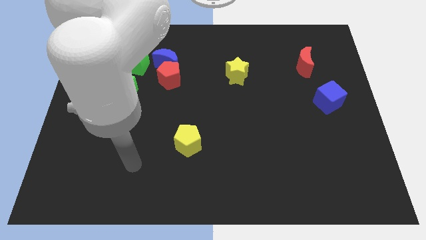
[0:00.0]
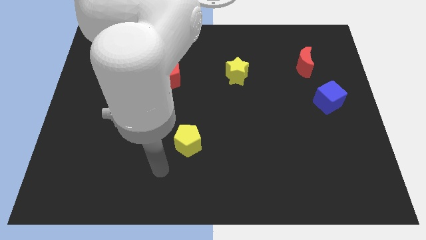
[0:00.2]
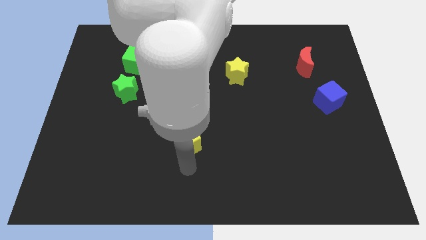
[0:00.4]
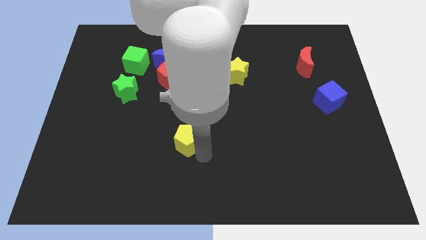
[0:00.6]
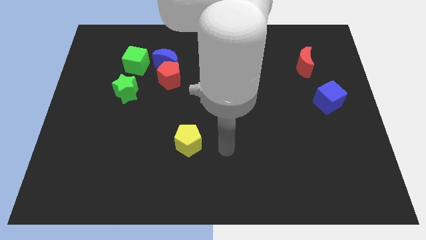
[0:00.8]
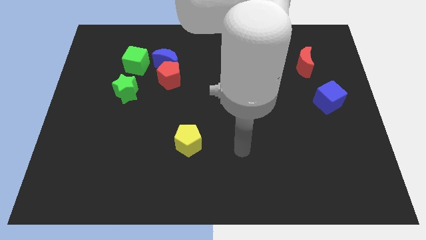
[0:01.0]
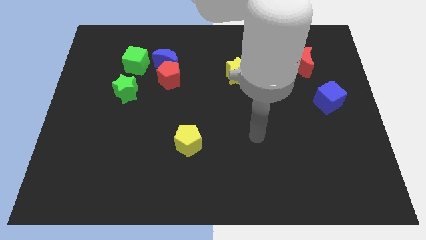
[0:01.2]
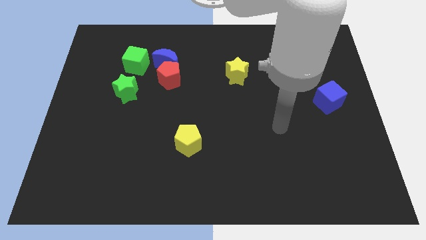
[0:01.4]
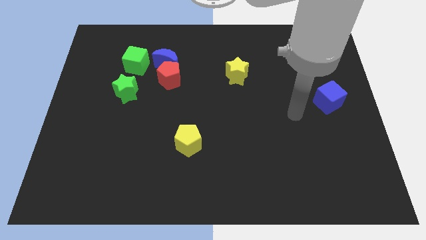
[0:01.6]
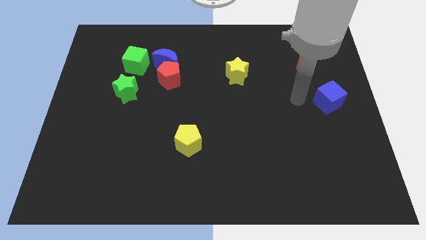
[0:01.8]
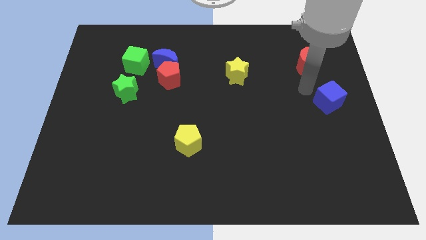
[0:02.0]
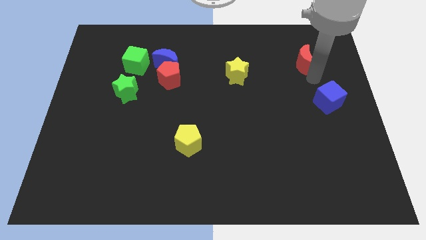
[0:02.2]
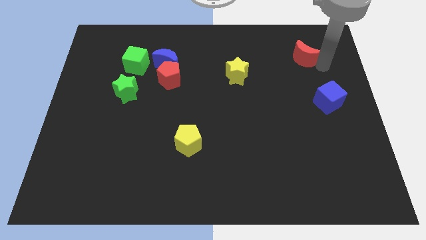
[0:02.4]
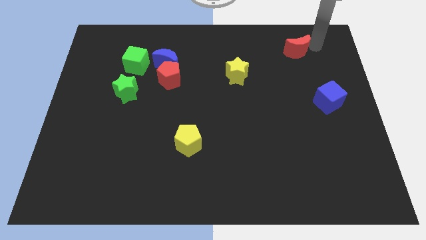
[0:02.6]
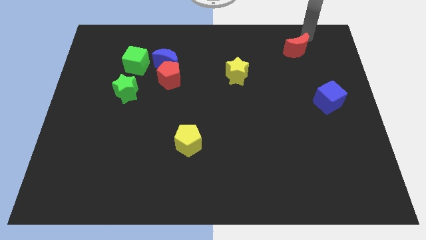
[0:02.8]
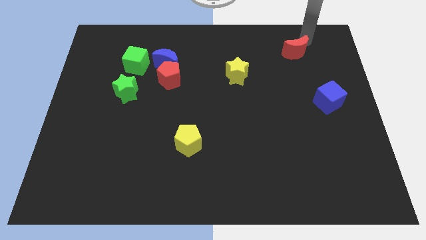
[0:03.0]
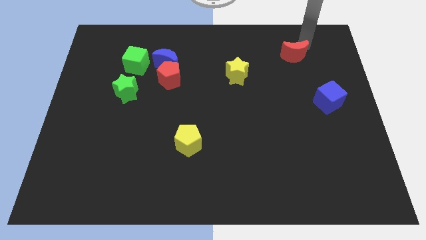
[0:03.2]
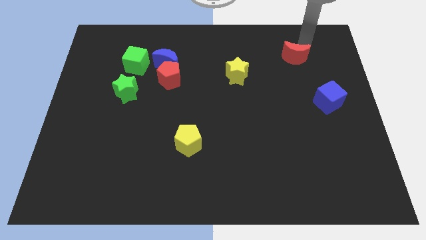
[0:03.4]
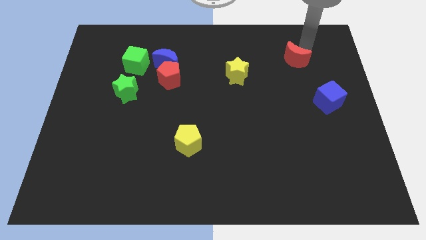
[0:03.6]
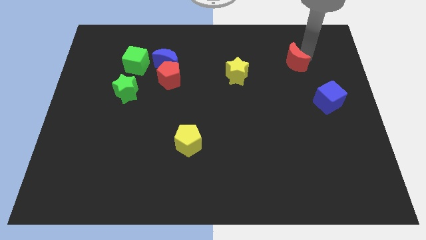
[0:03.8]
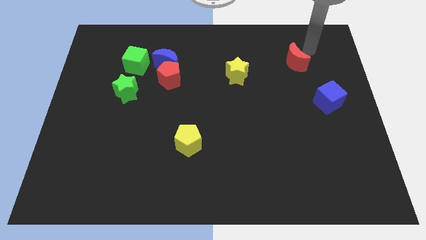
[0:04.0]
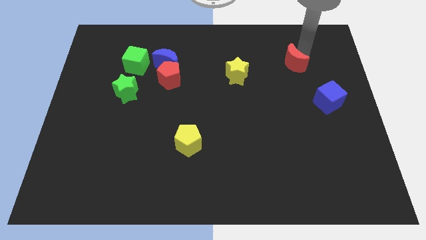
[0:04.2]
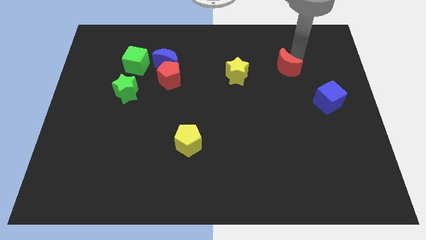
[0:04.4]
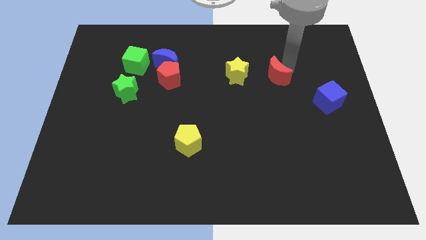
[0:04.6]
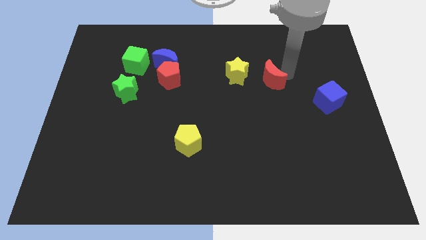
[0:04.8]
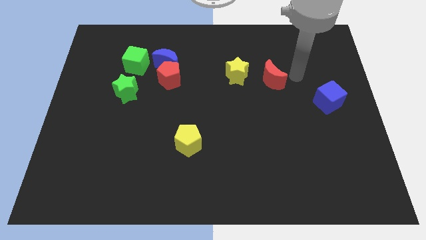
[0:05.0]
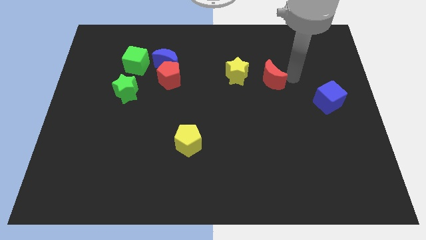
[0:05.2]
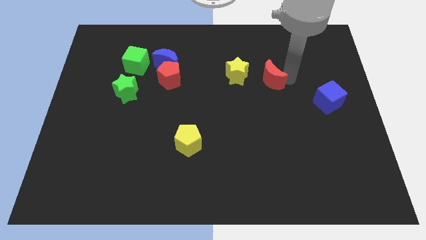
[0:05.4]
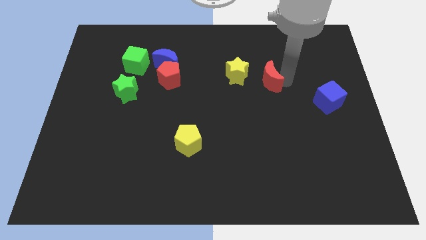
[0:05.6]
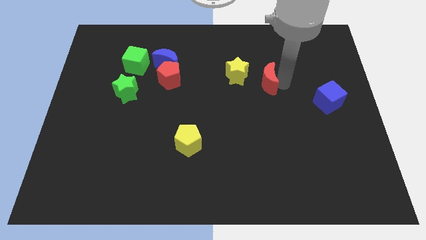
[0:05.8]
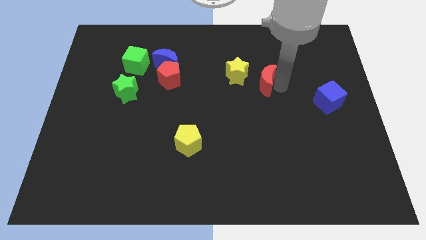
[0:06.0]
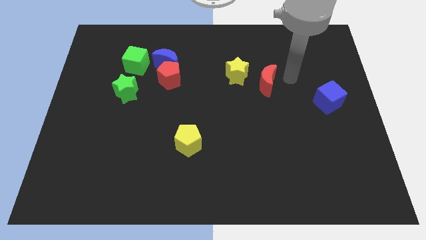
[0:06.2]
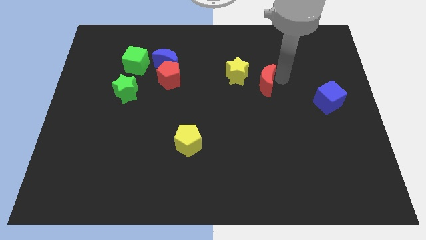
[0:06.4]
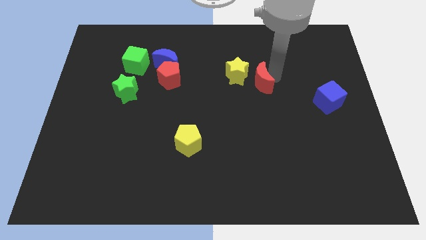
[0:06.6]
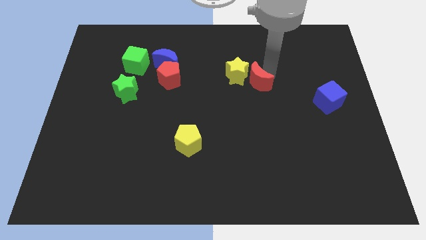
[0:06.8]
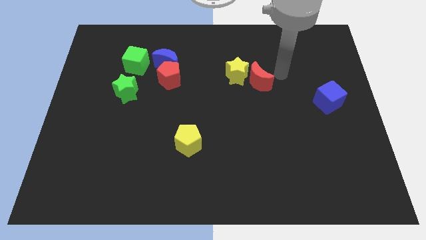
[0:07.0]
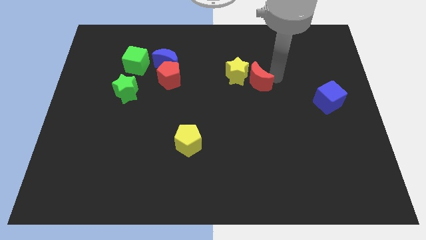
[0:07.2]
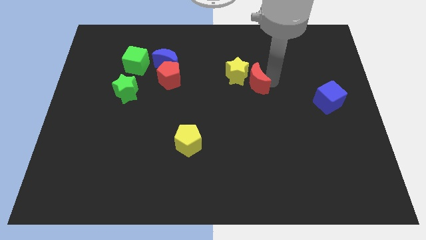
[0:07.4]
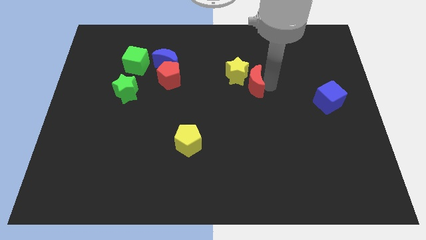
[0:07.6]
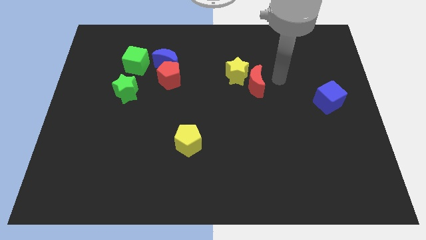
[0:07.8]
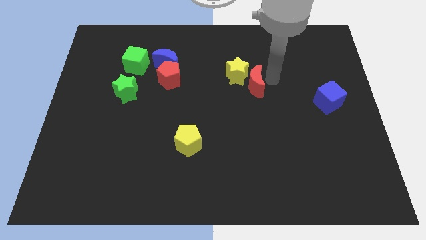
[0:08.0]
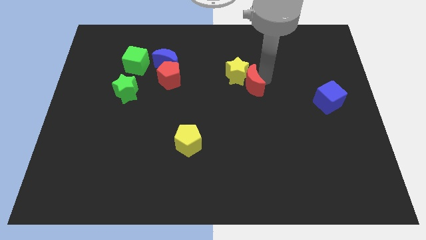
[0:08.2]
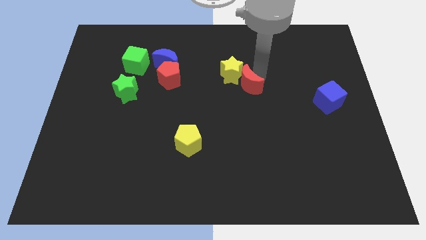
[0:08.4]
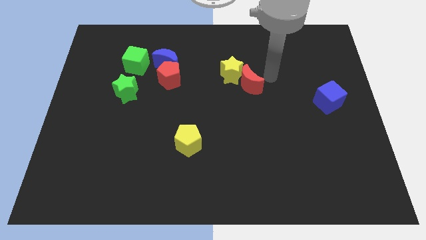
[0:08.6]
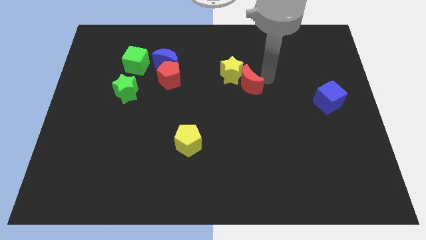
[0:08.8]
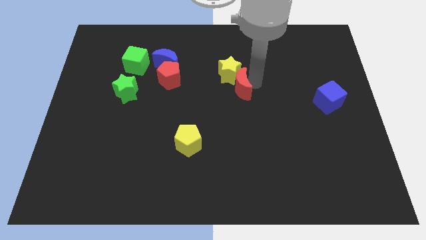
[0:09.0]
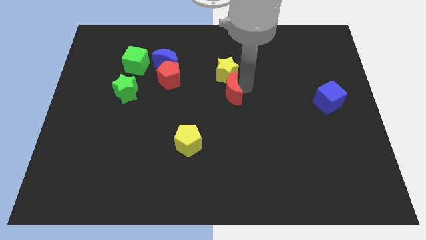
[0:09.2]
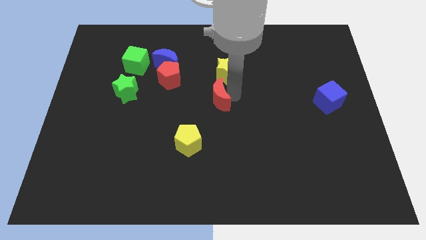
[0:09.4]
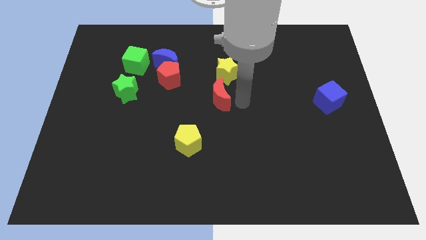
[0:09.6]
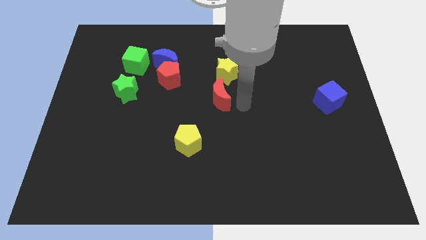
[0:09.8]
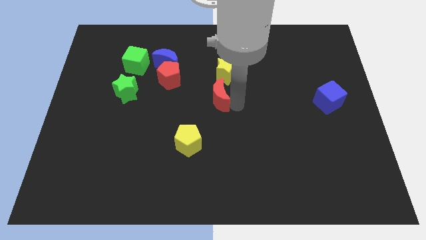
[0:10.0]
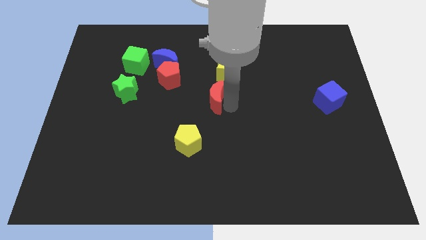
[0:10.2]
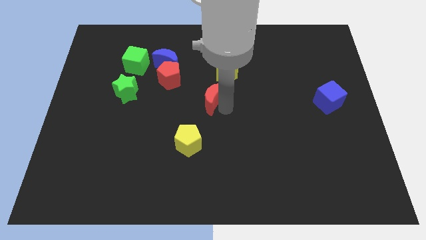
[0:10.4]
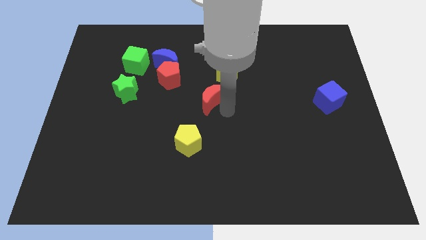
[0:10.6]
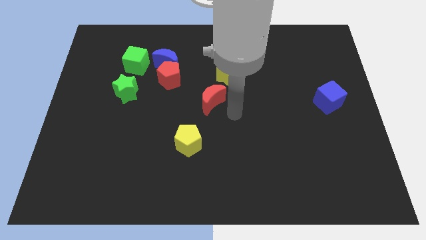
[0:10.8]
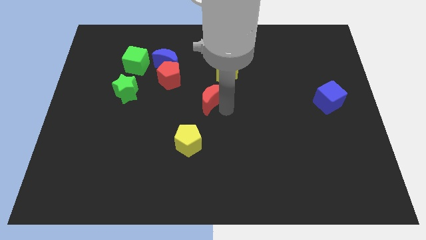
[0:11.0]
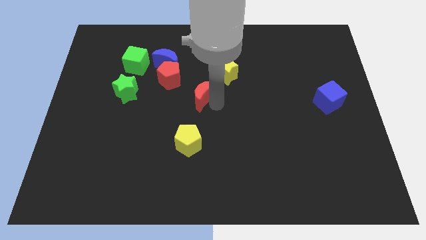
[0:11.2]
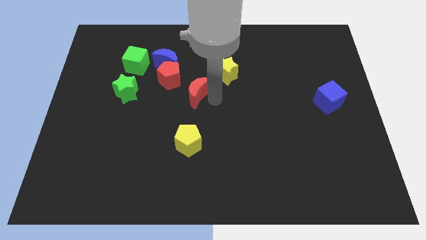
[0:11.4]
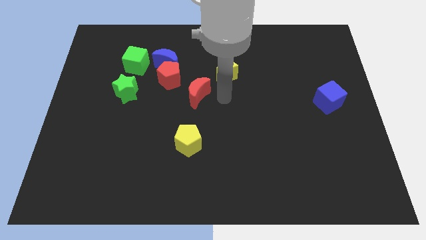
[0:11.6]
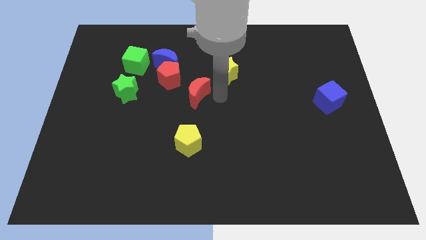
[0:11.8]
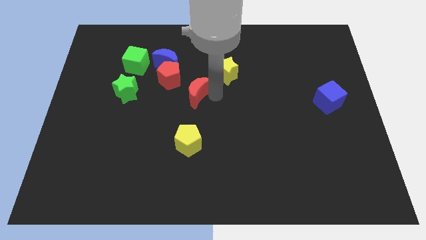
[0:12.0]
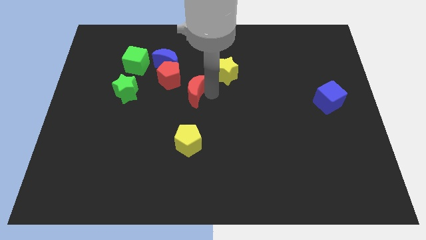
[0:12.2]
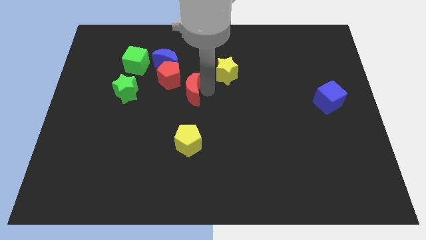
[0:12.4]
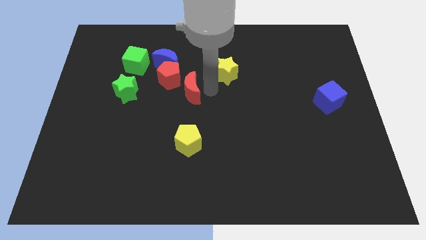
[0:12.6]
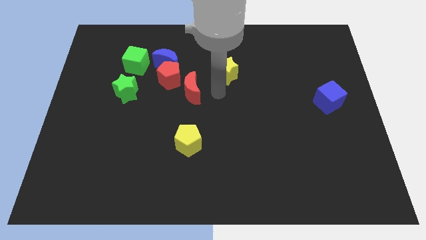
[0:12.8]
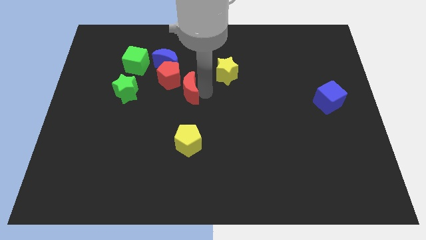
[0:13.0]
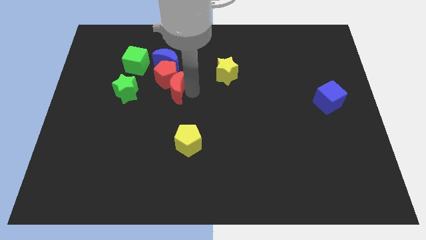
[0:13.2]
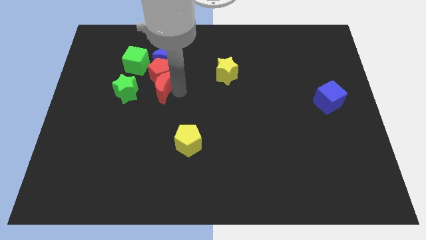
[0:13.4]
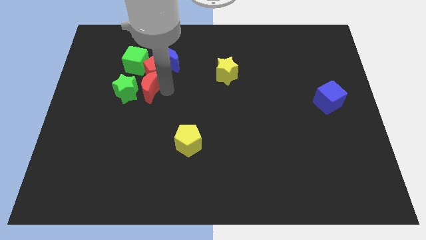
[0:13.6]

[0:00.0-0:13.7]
slide the red moon close to the green star

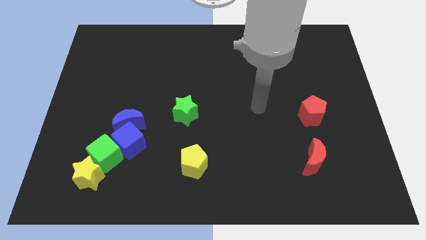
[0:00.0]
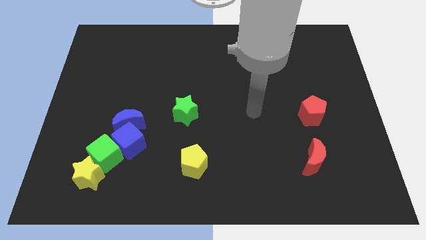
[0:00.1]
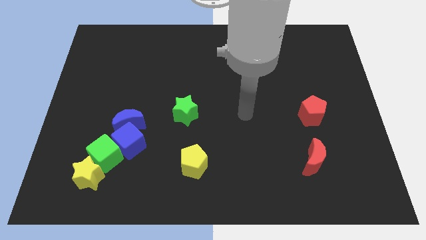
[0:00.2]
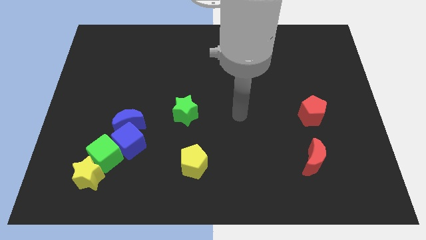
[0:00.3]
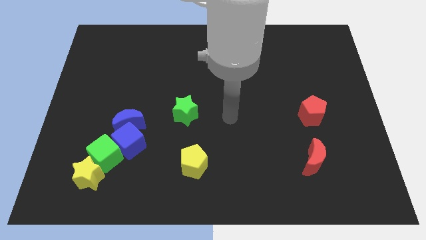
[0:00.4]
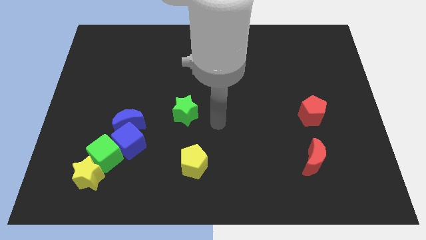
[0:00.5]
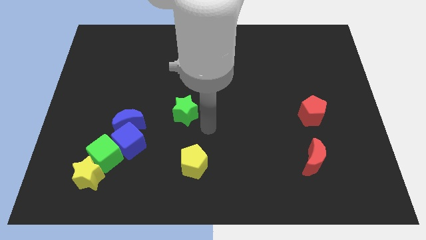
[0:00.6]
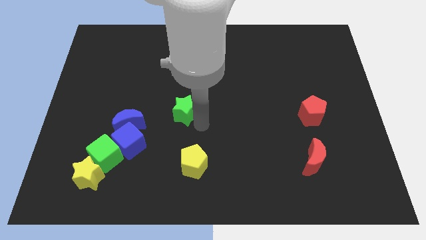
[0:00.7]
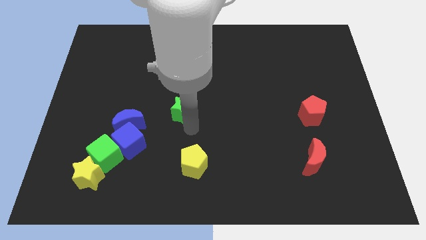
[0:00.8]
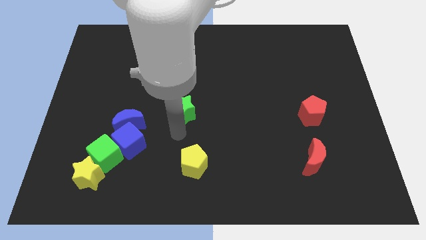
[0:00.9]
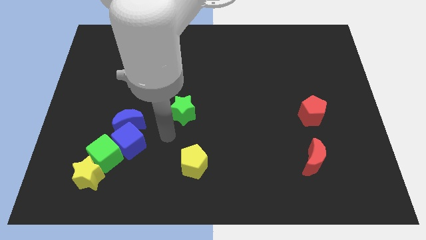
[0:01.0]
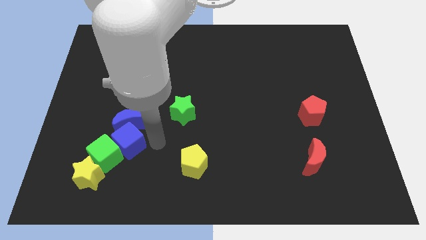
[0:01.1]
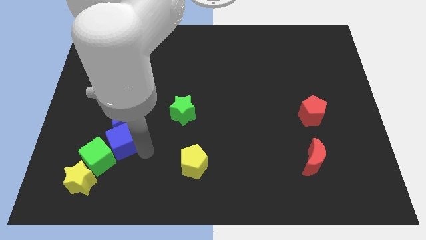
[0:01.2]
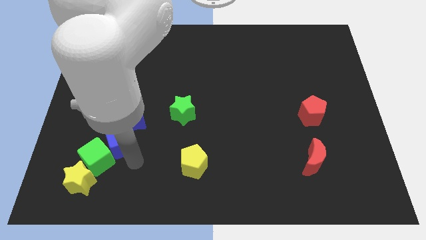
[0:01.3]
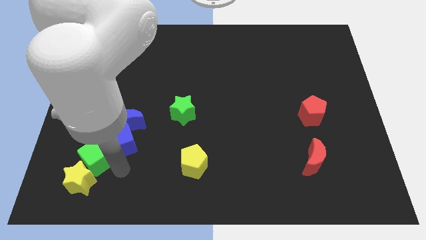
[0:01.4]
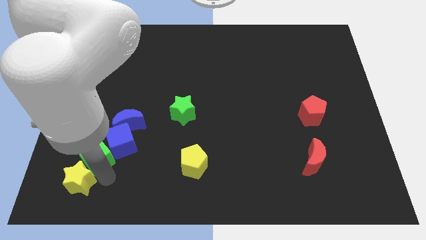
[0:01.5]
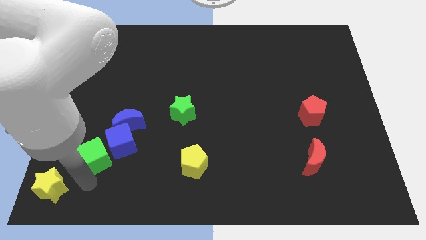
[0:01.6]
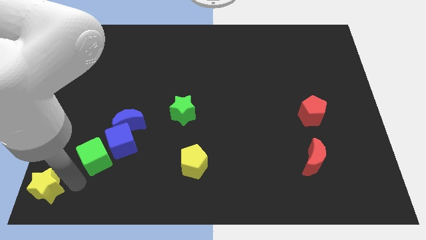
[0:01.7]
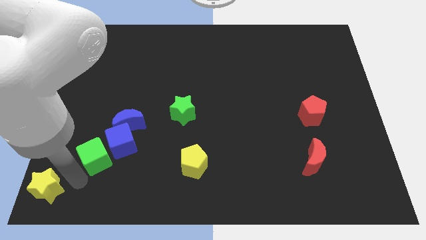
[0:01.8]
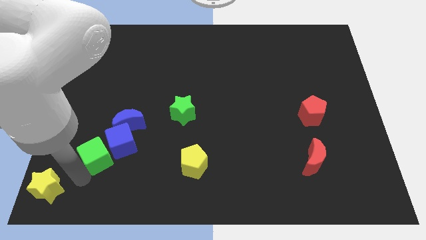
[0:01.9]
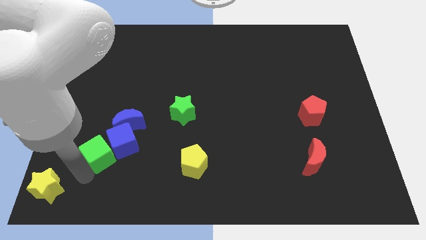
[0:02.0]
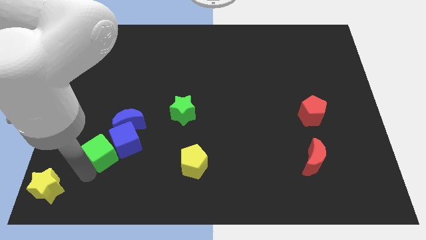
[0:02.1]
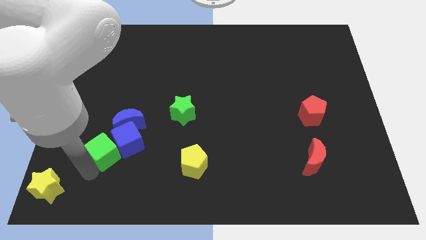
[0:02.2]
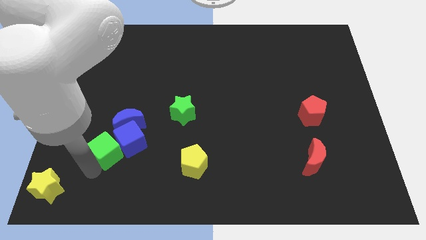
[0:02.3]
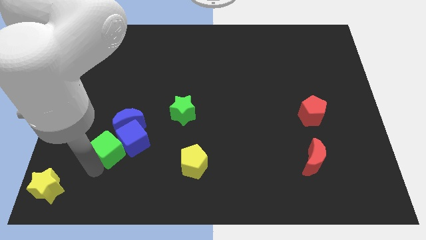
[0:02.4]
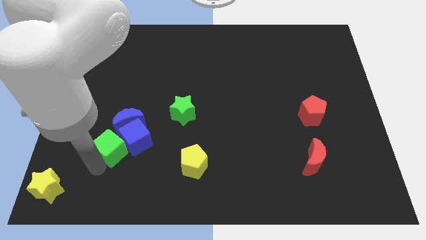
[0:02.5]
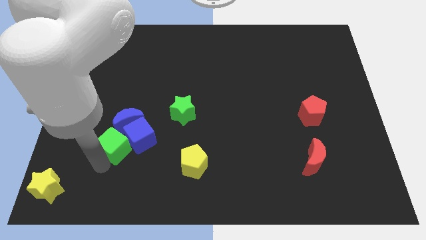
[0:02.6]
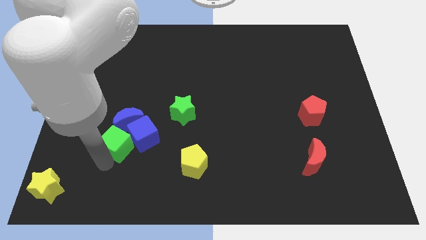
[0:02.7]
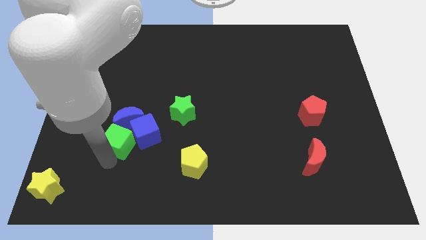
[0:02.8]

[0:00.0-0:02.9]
move the green cube next to the blue moon
